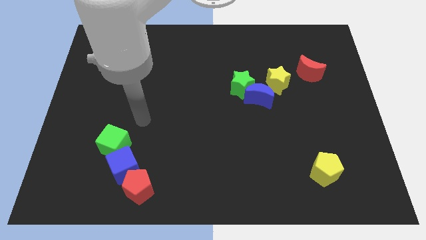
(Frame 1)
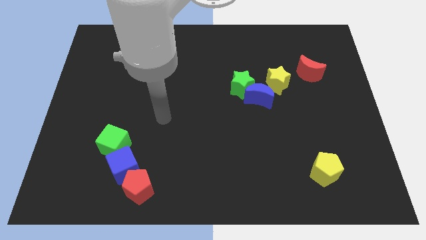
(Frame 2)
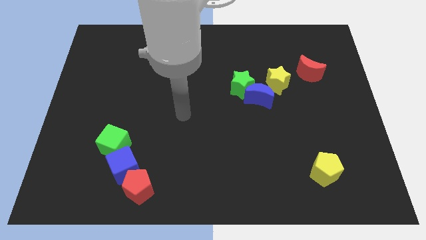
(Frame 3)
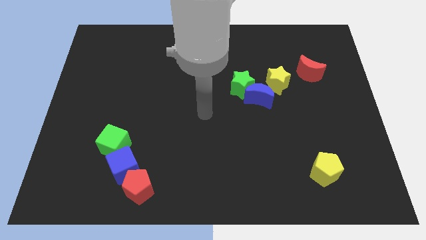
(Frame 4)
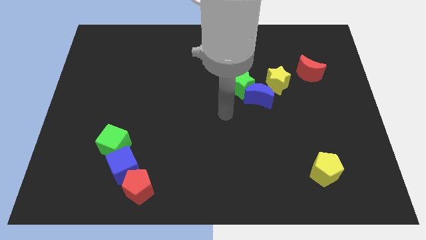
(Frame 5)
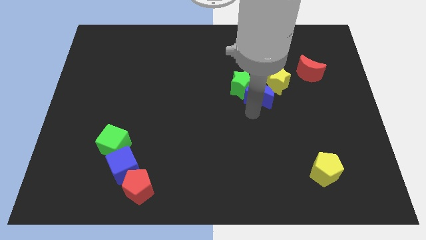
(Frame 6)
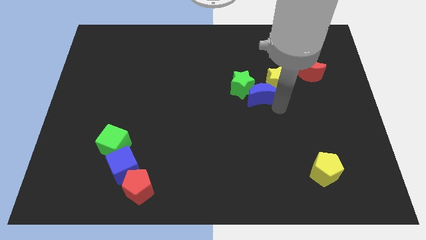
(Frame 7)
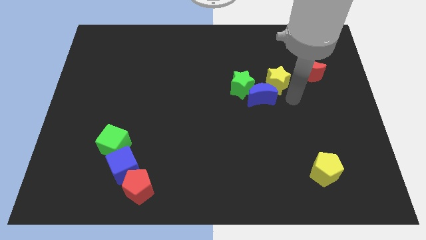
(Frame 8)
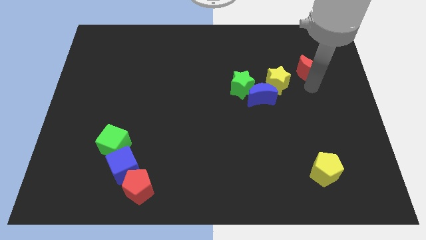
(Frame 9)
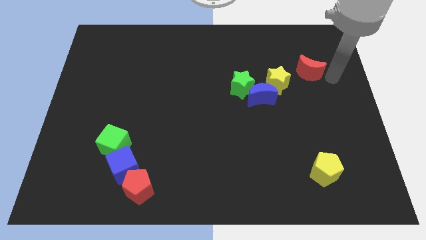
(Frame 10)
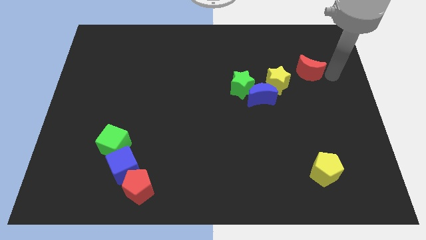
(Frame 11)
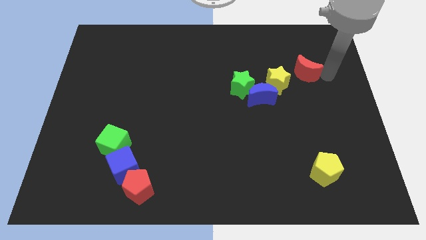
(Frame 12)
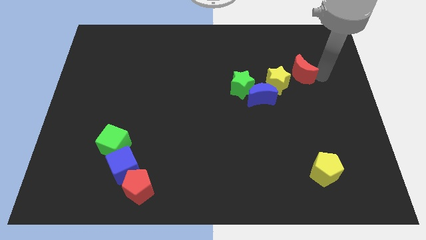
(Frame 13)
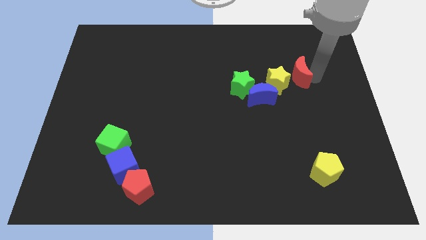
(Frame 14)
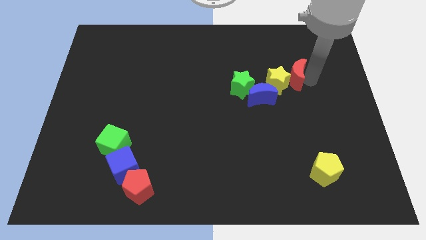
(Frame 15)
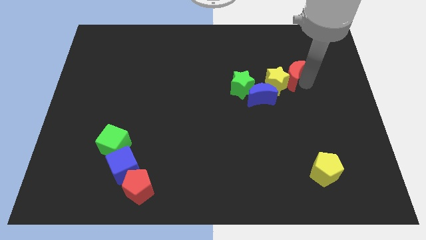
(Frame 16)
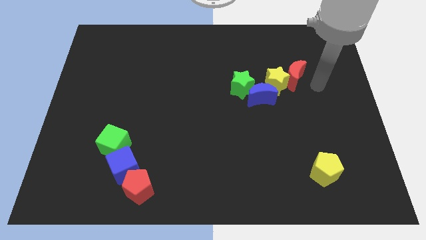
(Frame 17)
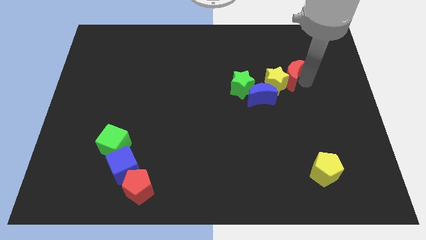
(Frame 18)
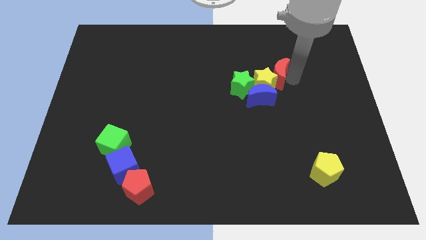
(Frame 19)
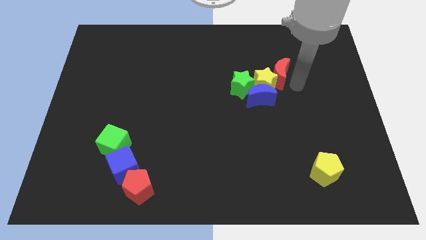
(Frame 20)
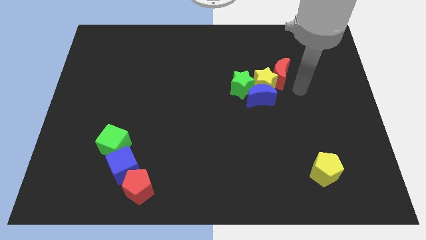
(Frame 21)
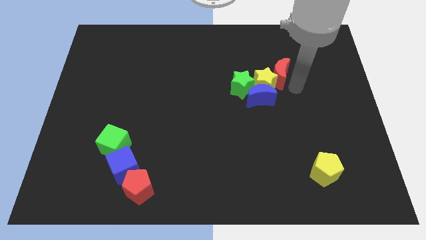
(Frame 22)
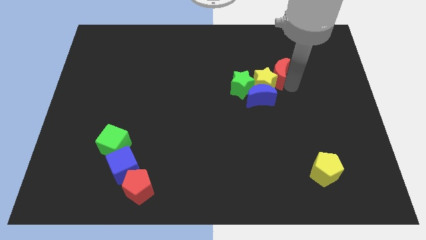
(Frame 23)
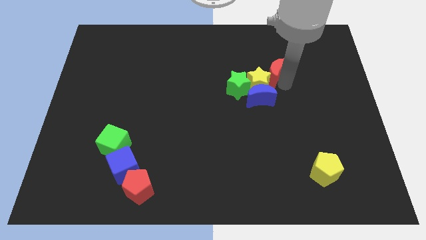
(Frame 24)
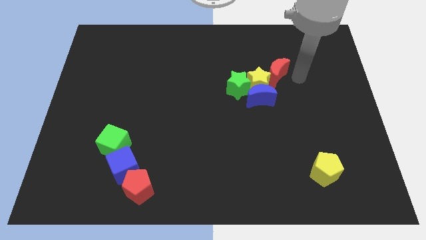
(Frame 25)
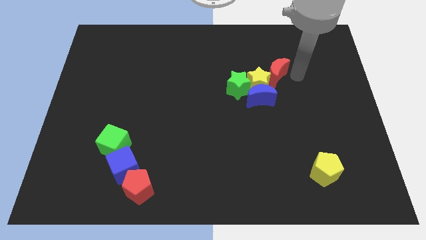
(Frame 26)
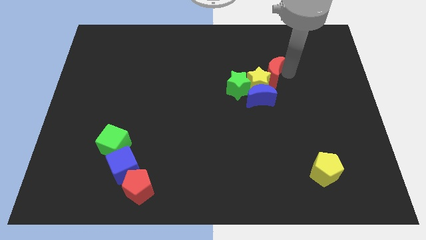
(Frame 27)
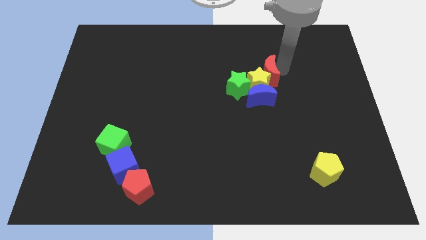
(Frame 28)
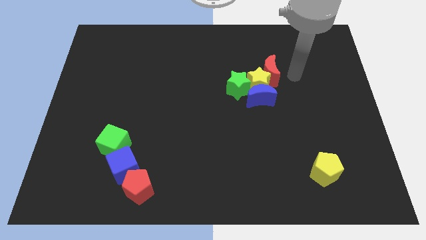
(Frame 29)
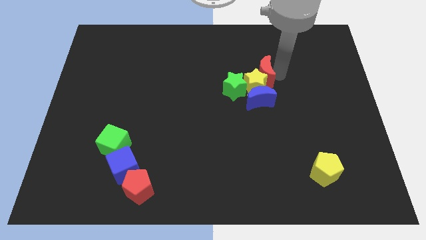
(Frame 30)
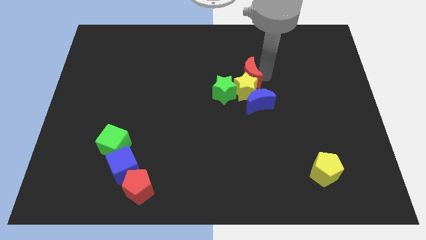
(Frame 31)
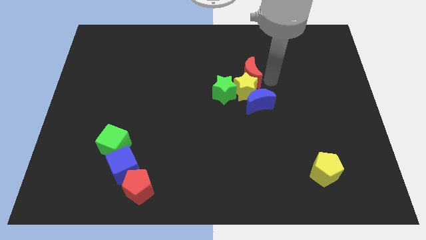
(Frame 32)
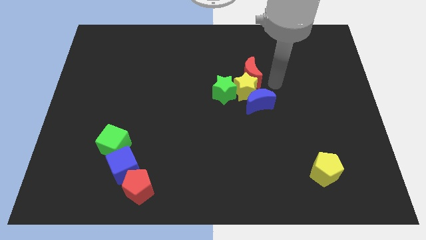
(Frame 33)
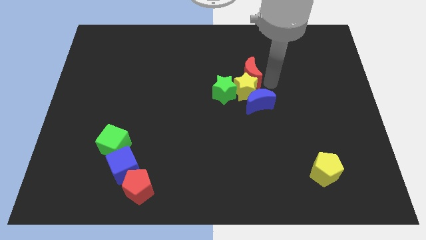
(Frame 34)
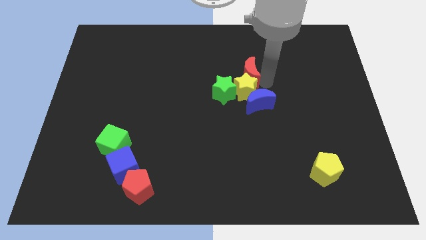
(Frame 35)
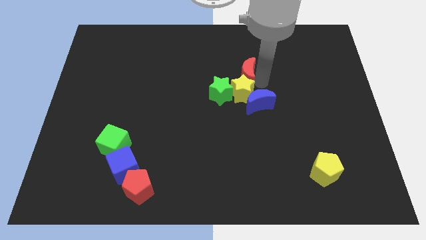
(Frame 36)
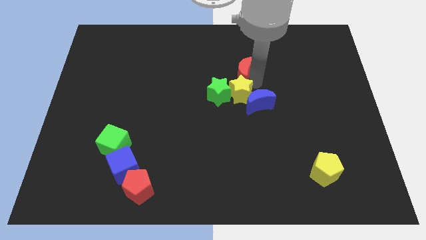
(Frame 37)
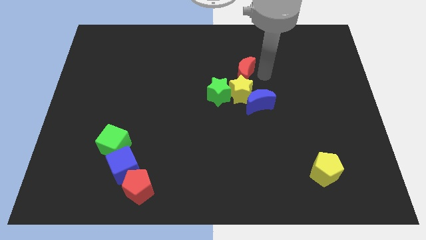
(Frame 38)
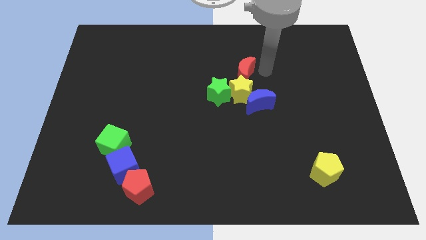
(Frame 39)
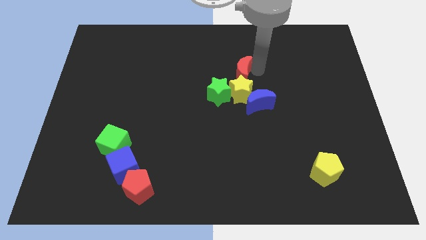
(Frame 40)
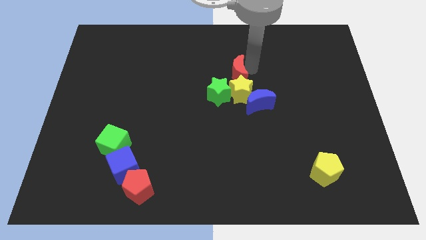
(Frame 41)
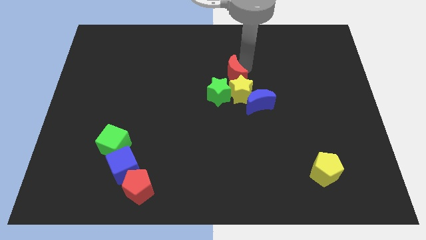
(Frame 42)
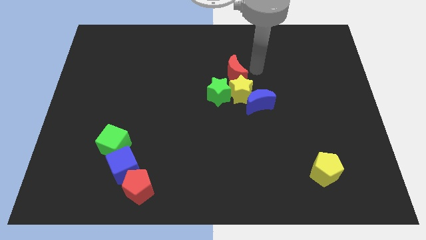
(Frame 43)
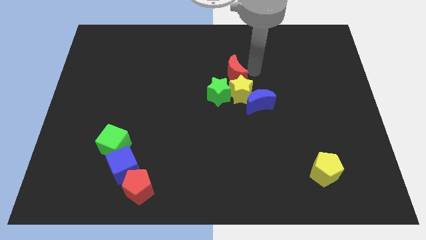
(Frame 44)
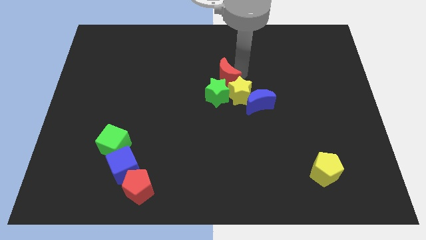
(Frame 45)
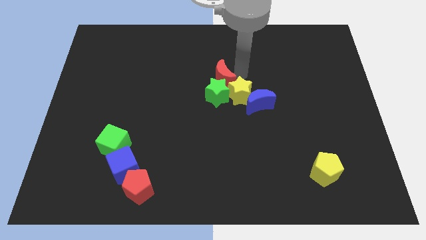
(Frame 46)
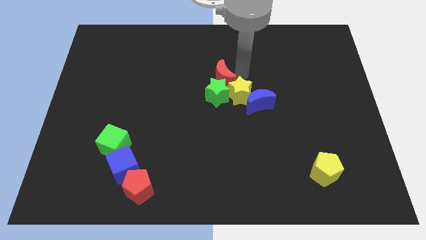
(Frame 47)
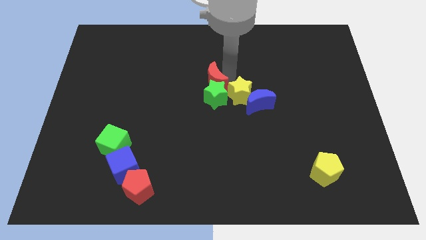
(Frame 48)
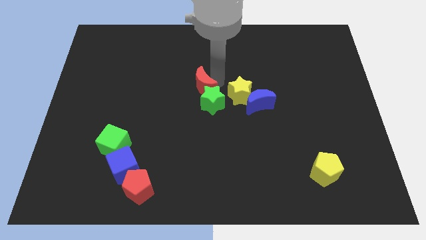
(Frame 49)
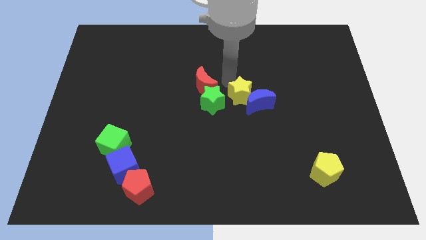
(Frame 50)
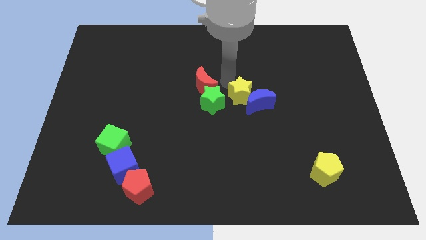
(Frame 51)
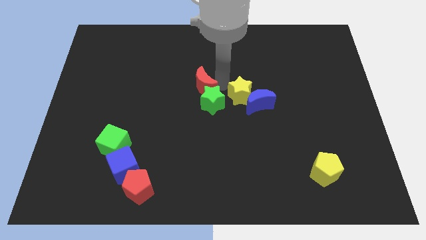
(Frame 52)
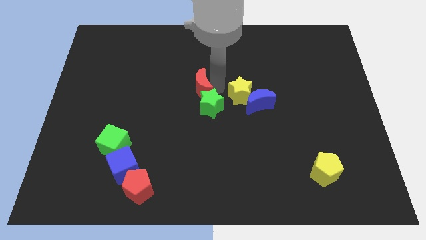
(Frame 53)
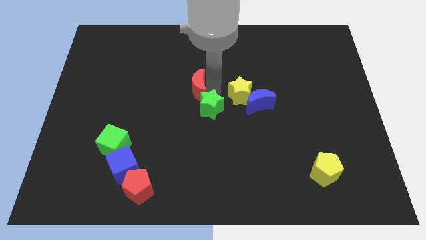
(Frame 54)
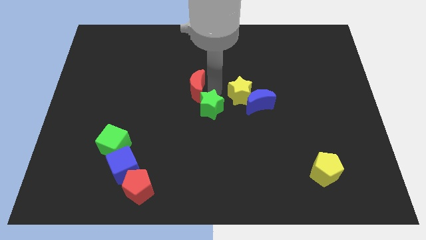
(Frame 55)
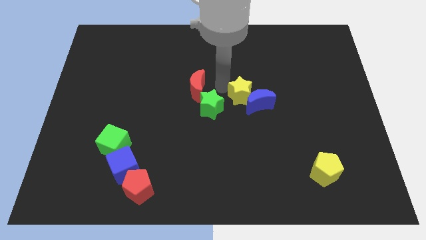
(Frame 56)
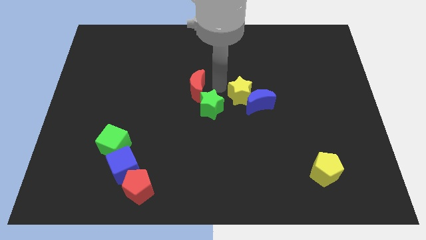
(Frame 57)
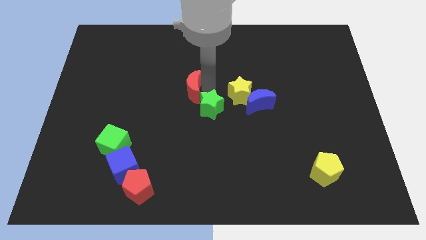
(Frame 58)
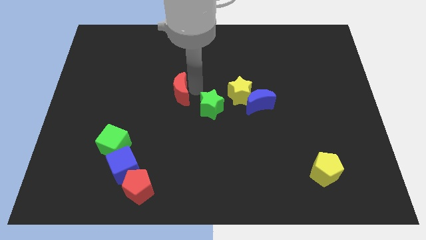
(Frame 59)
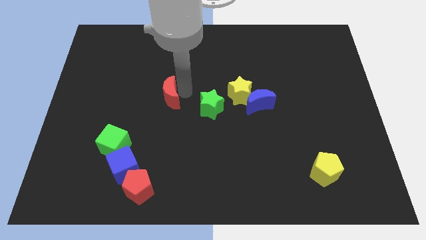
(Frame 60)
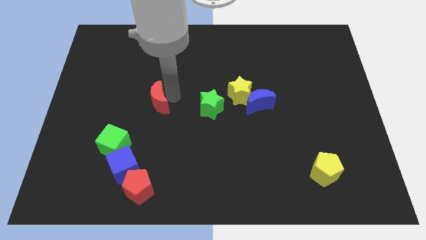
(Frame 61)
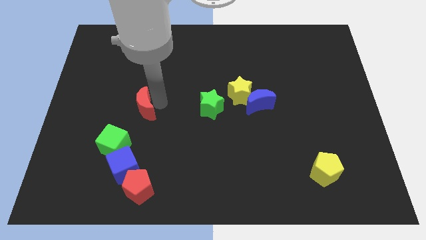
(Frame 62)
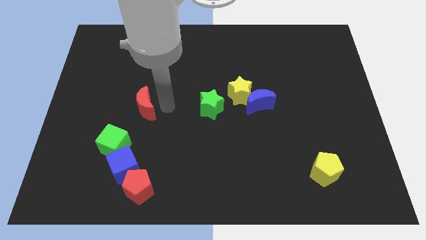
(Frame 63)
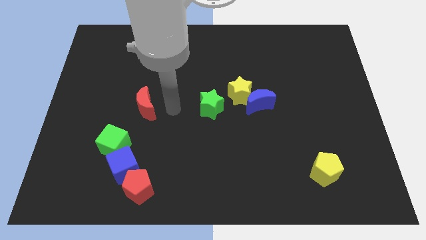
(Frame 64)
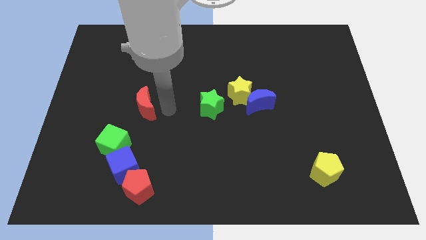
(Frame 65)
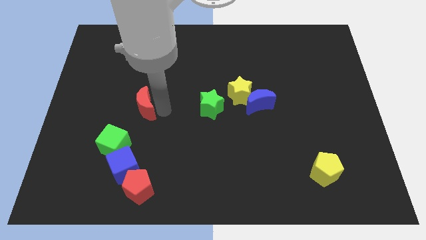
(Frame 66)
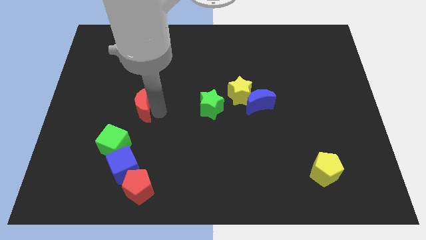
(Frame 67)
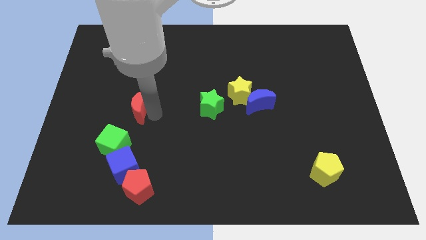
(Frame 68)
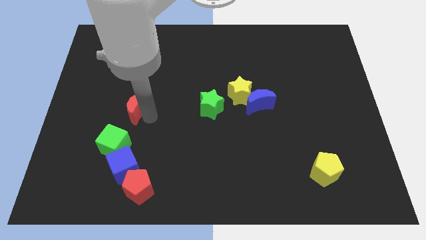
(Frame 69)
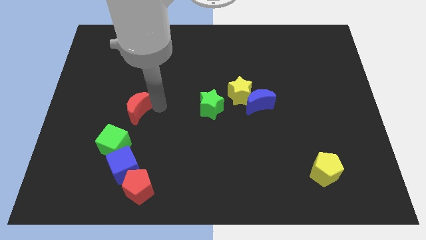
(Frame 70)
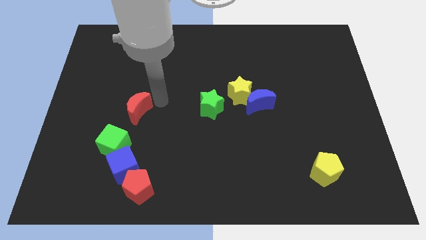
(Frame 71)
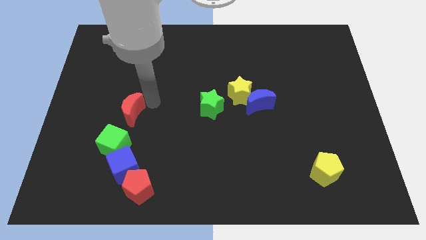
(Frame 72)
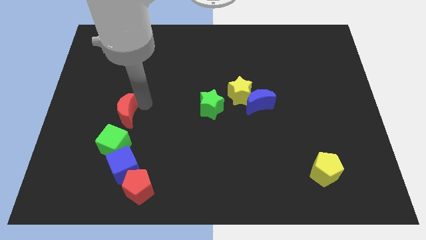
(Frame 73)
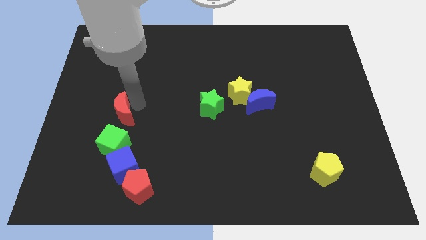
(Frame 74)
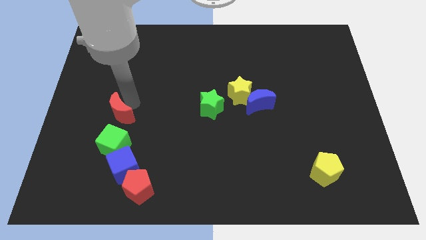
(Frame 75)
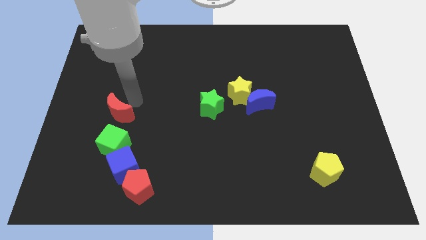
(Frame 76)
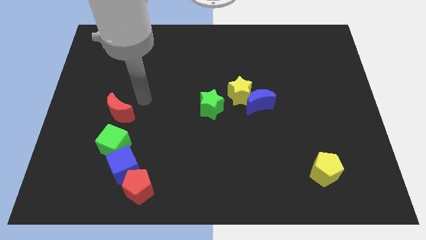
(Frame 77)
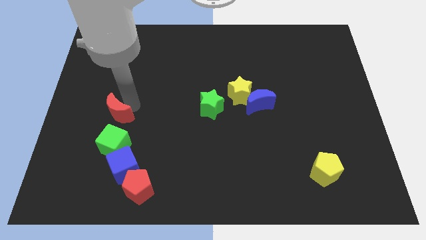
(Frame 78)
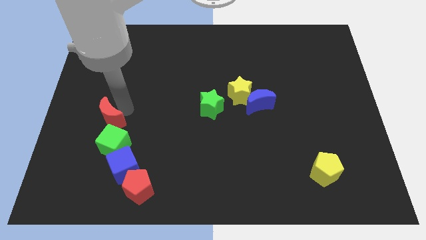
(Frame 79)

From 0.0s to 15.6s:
put the red moon diagonally up and to the left of the green cube

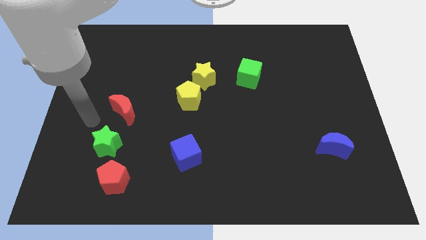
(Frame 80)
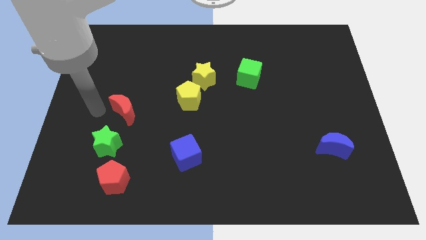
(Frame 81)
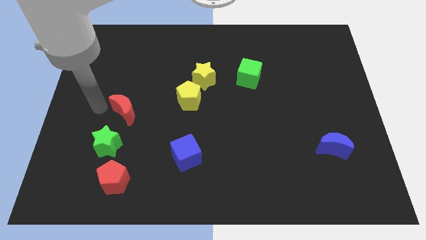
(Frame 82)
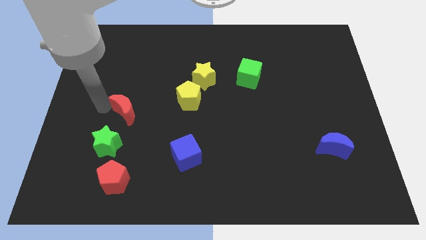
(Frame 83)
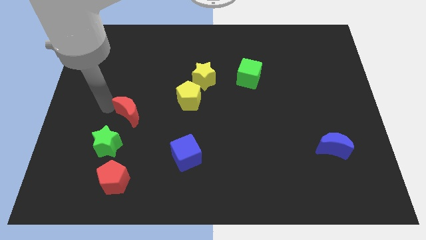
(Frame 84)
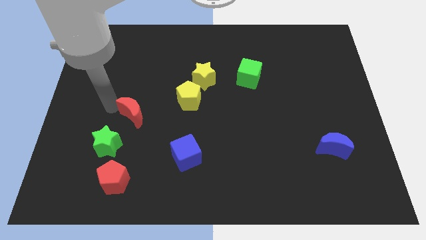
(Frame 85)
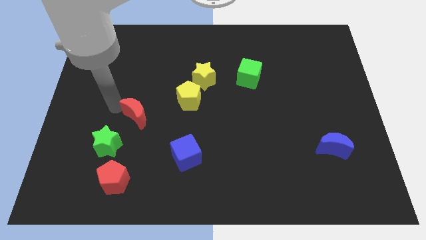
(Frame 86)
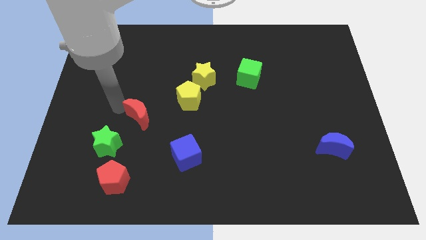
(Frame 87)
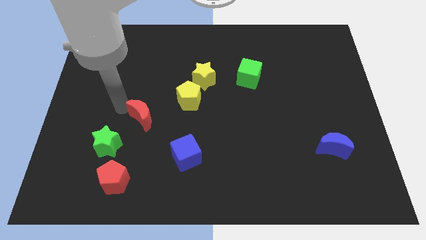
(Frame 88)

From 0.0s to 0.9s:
slide the red moon to the bottom left of the yellow pentagon
